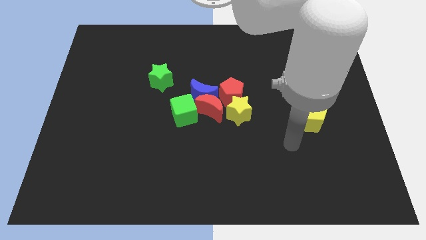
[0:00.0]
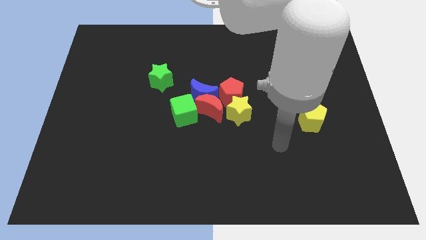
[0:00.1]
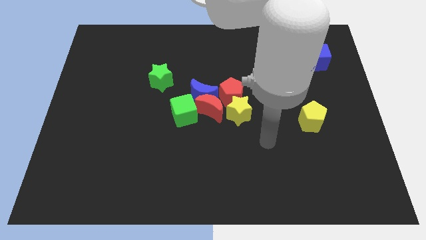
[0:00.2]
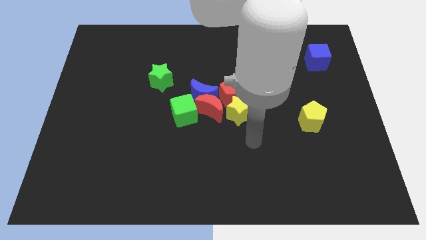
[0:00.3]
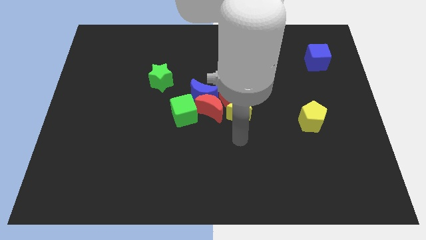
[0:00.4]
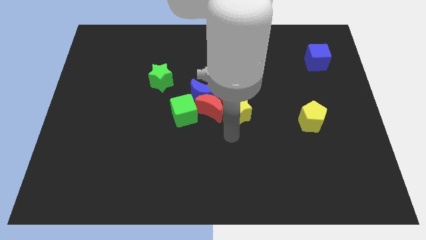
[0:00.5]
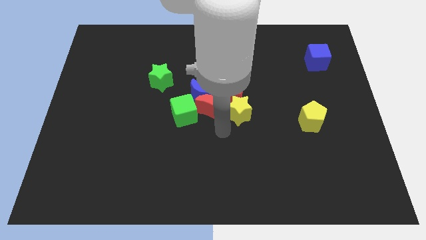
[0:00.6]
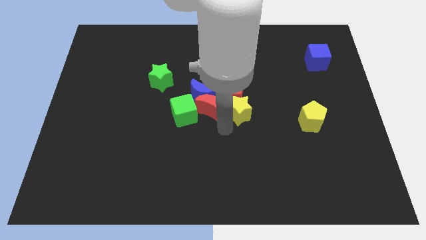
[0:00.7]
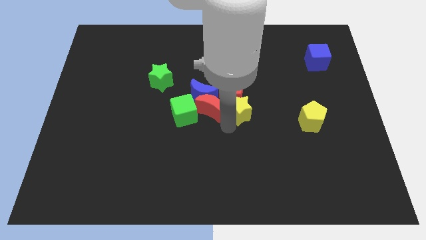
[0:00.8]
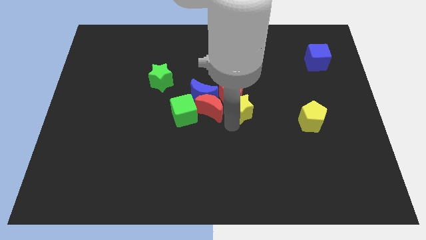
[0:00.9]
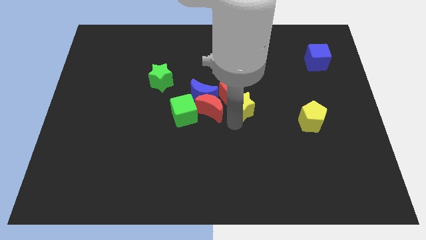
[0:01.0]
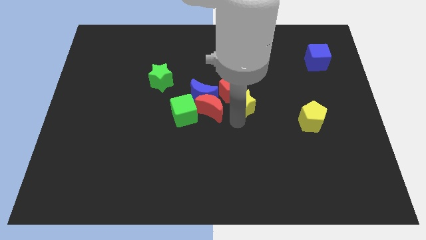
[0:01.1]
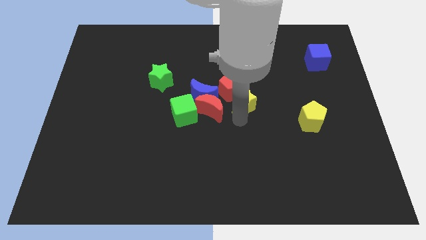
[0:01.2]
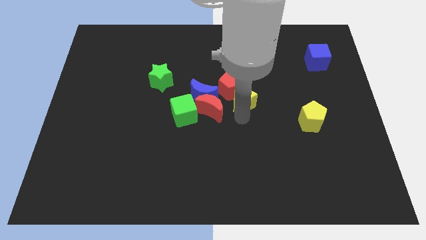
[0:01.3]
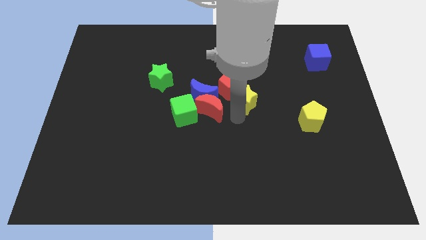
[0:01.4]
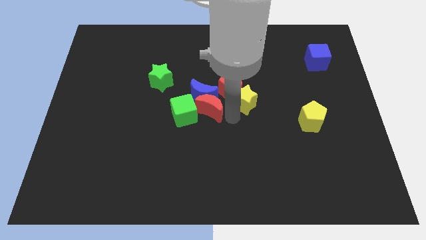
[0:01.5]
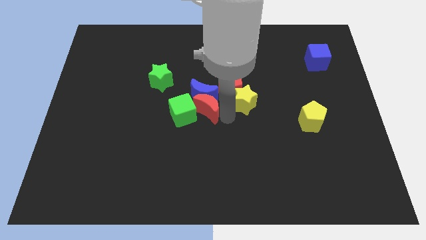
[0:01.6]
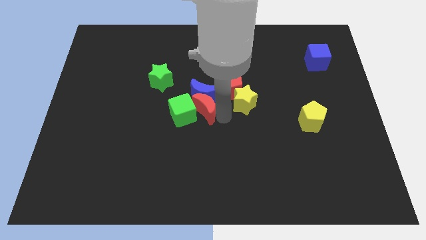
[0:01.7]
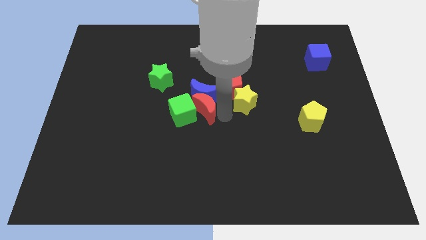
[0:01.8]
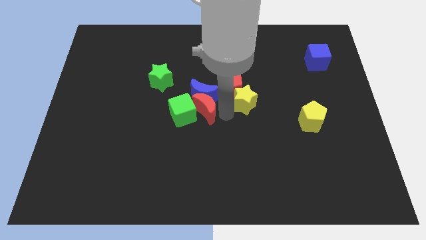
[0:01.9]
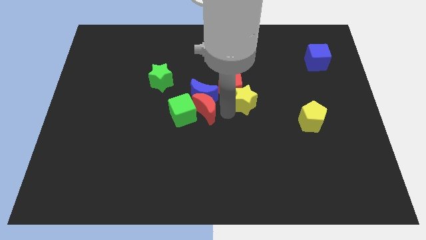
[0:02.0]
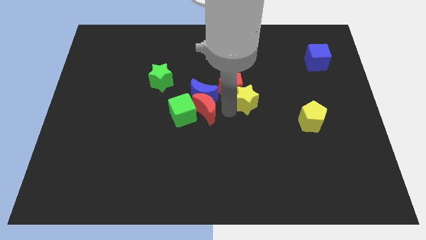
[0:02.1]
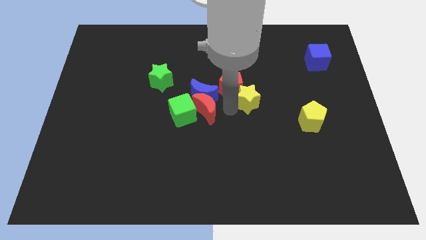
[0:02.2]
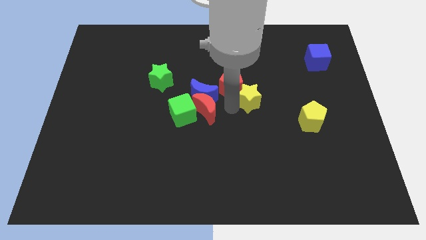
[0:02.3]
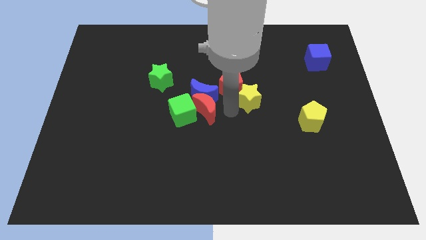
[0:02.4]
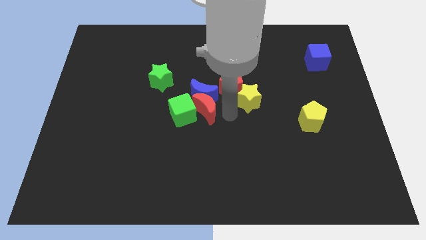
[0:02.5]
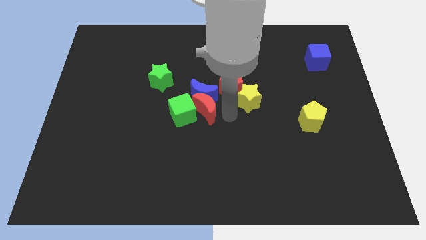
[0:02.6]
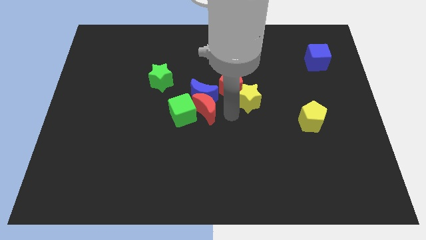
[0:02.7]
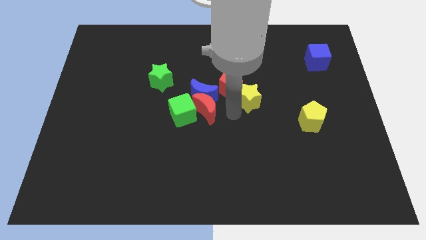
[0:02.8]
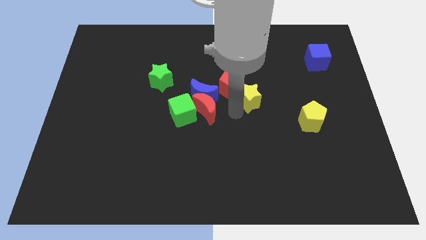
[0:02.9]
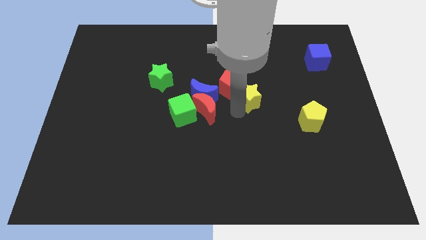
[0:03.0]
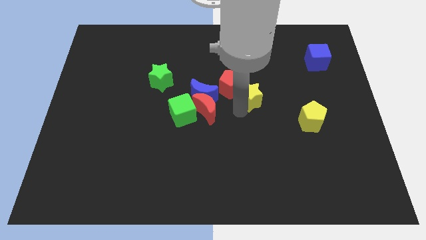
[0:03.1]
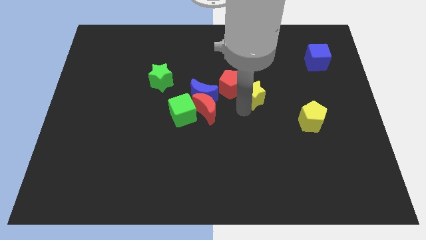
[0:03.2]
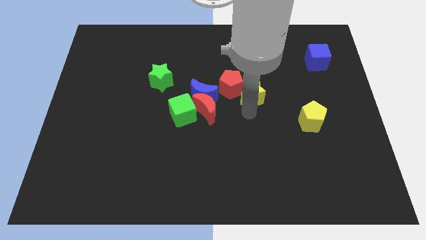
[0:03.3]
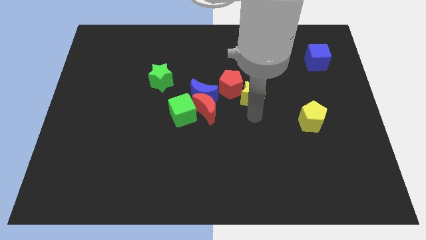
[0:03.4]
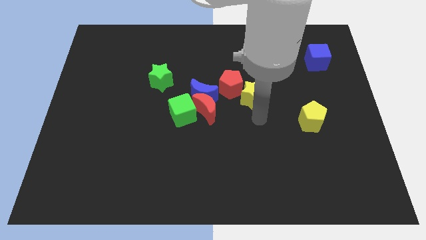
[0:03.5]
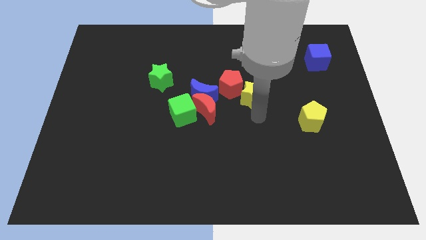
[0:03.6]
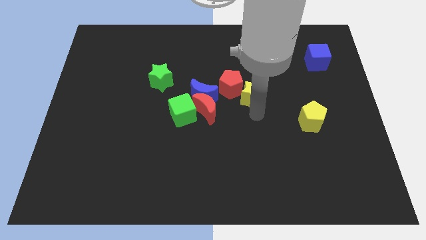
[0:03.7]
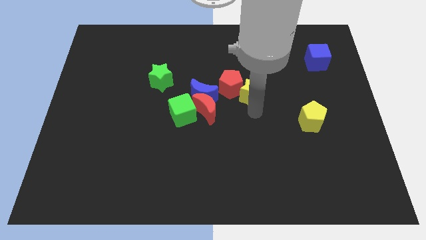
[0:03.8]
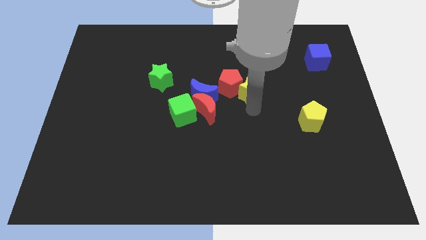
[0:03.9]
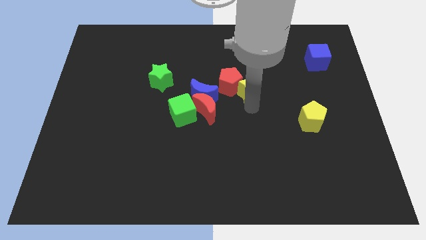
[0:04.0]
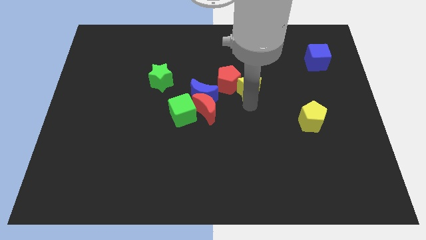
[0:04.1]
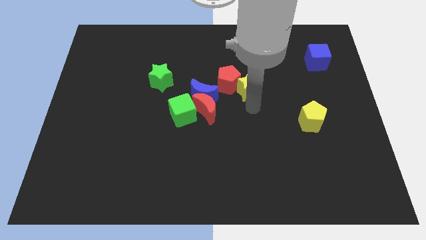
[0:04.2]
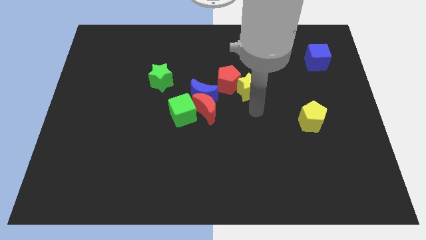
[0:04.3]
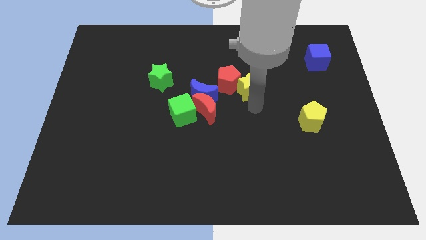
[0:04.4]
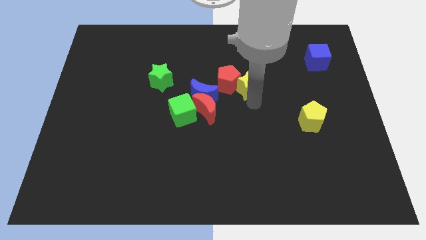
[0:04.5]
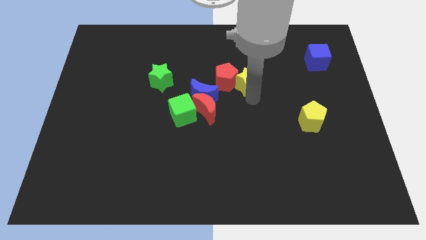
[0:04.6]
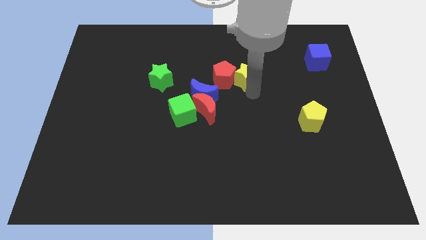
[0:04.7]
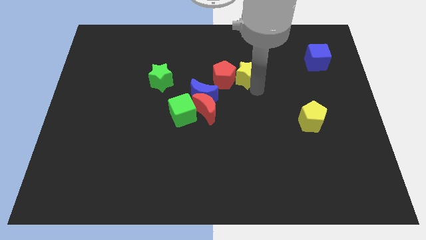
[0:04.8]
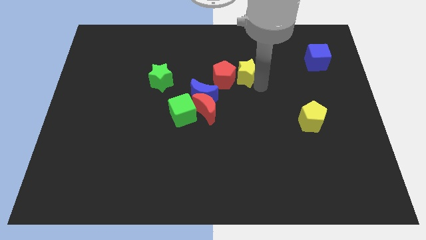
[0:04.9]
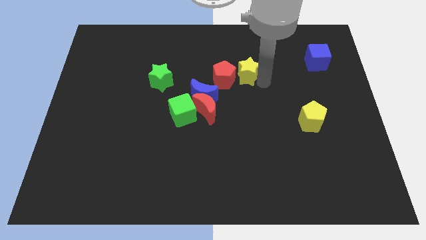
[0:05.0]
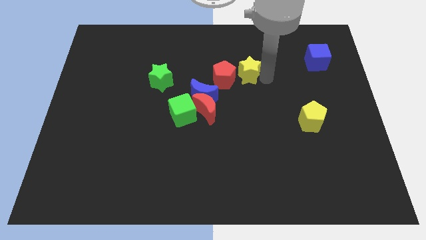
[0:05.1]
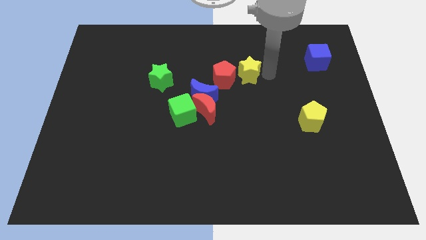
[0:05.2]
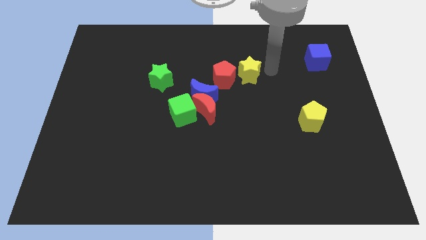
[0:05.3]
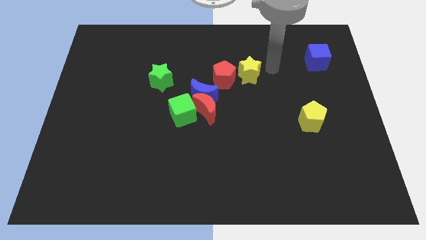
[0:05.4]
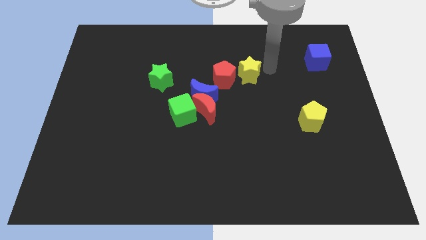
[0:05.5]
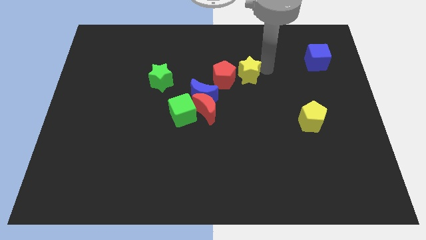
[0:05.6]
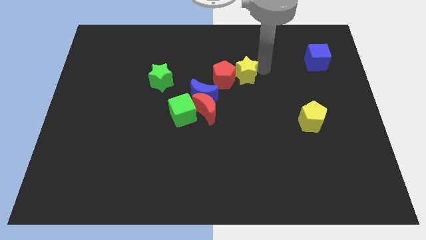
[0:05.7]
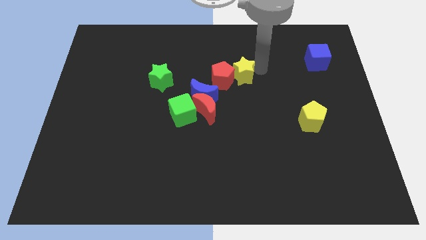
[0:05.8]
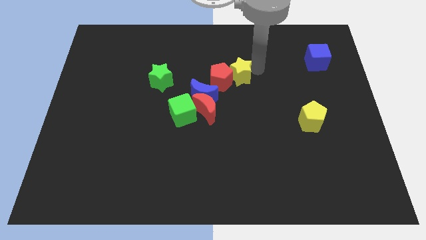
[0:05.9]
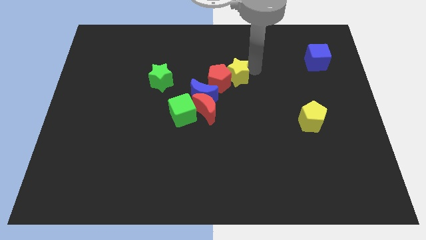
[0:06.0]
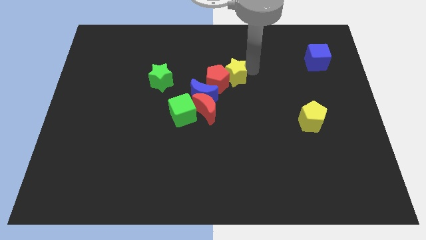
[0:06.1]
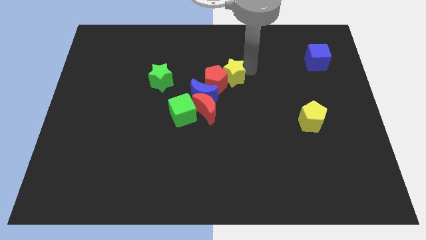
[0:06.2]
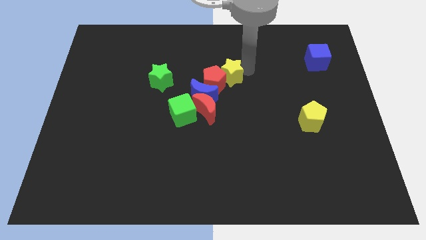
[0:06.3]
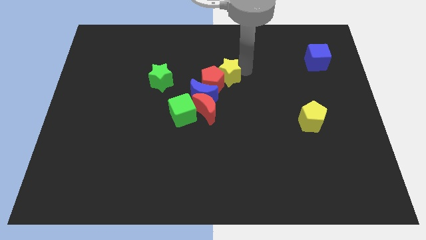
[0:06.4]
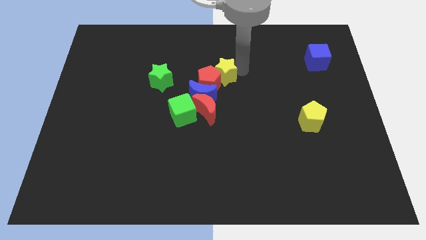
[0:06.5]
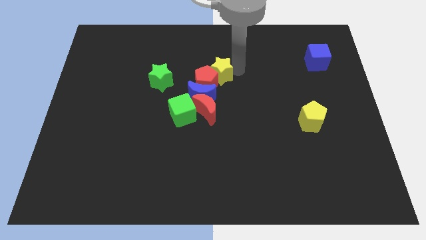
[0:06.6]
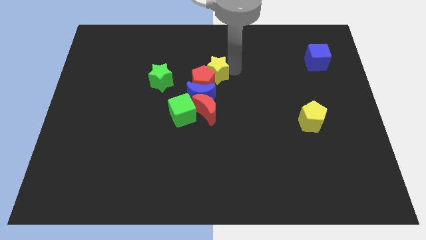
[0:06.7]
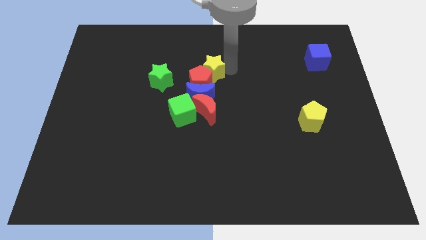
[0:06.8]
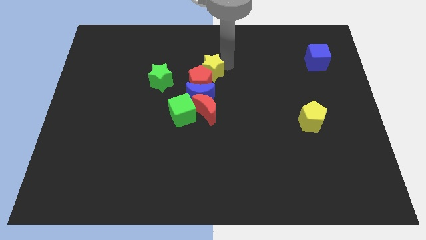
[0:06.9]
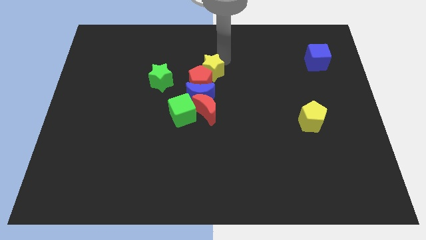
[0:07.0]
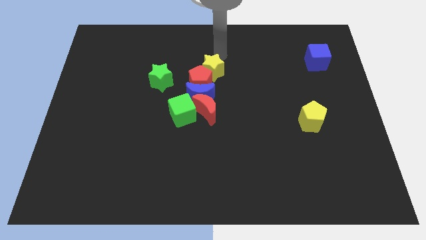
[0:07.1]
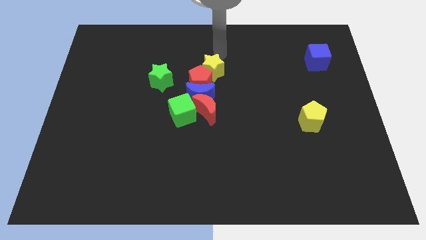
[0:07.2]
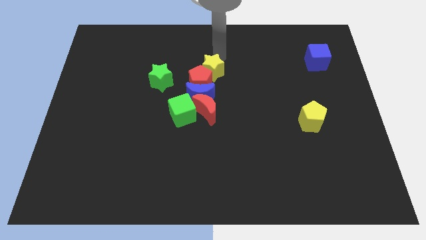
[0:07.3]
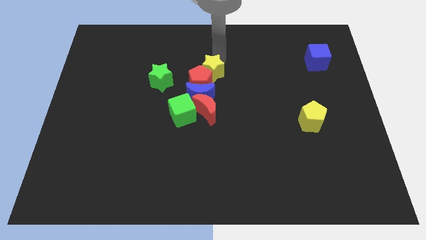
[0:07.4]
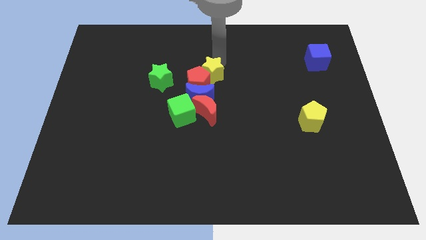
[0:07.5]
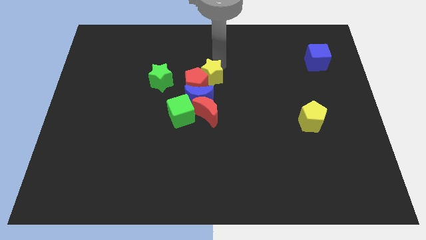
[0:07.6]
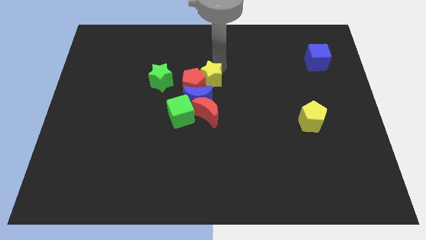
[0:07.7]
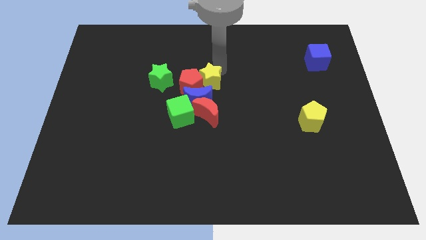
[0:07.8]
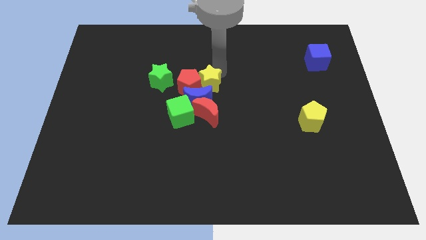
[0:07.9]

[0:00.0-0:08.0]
push the yellow star towards the blue moon
